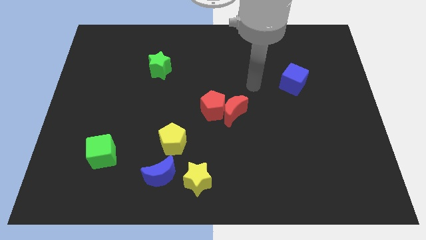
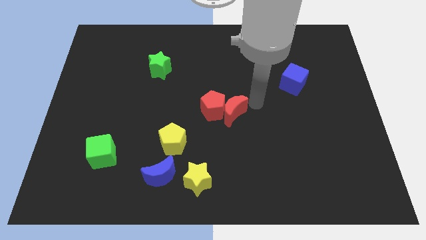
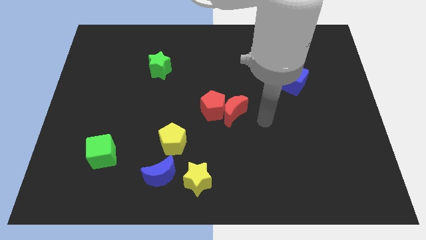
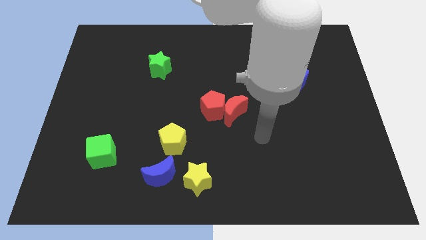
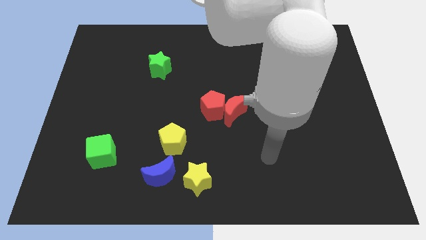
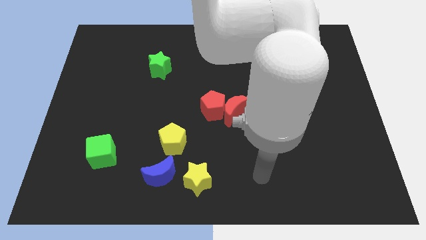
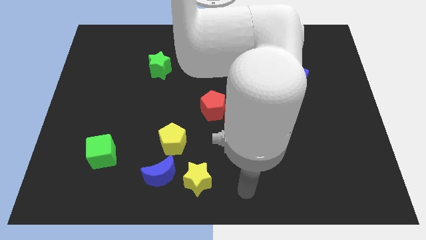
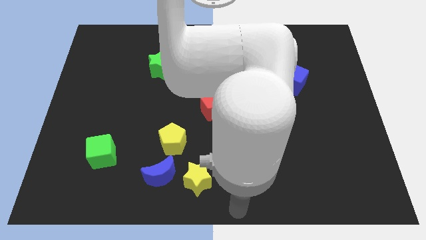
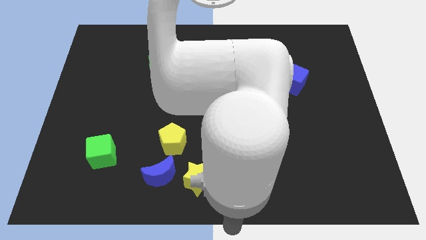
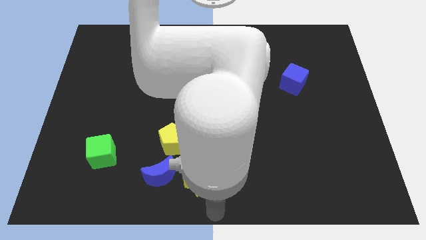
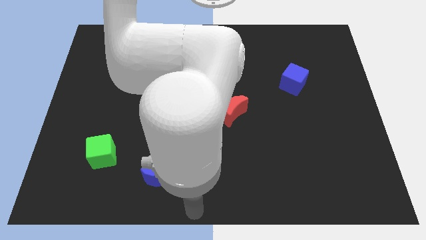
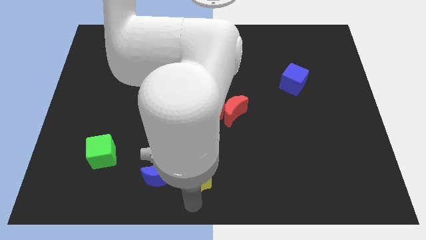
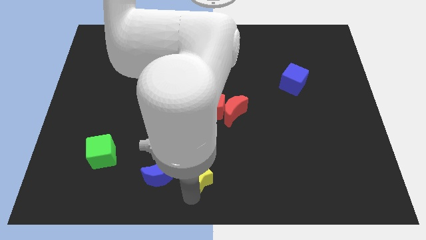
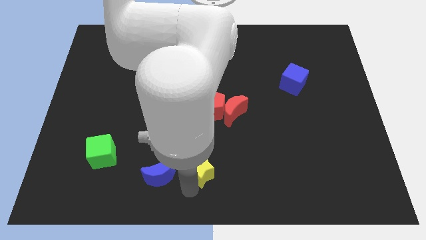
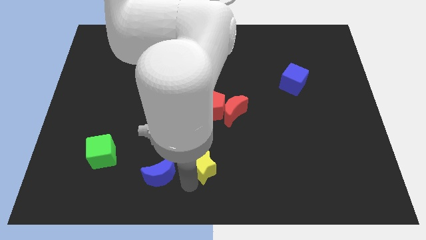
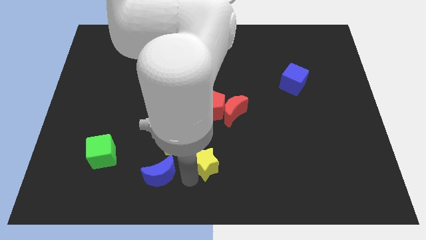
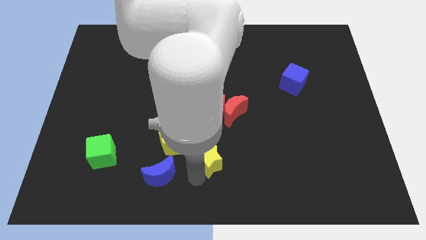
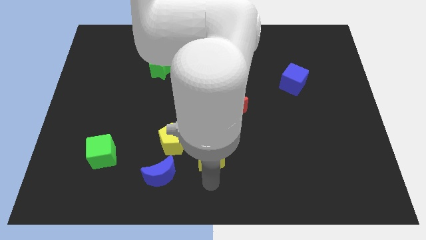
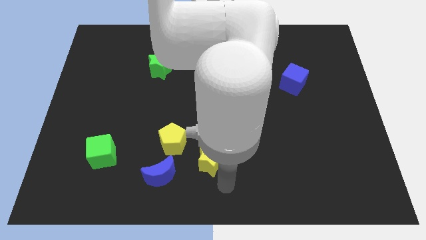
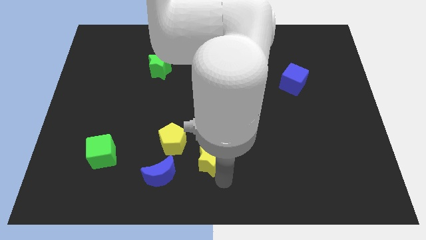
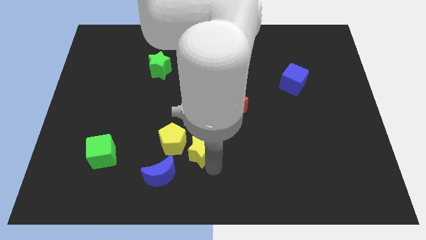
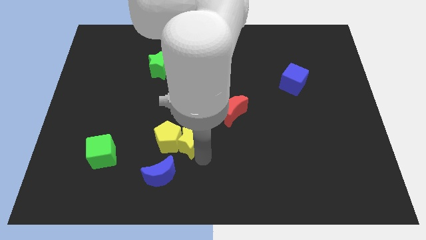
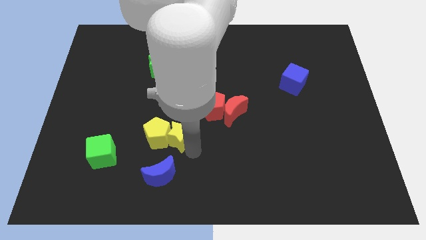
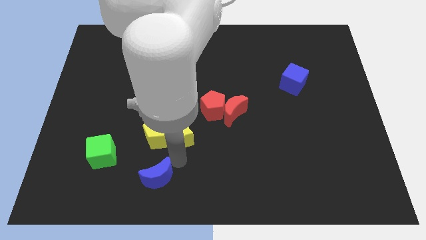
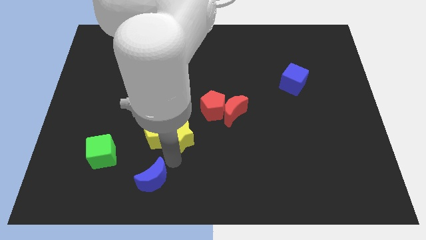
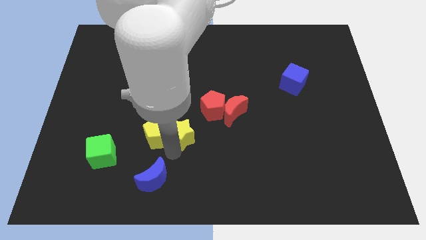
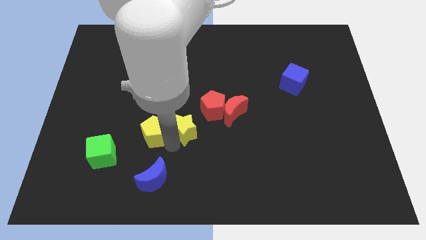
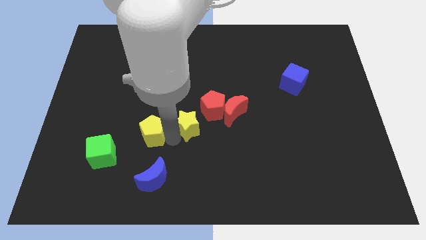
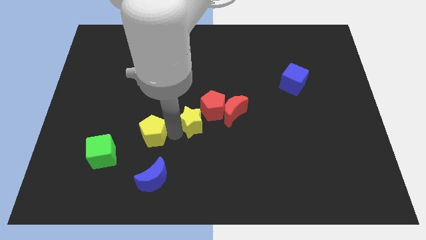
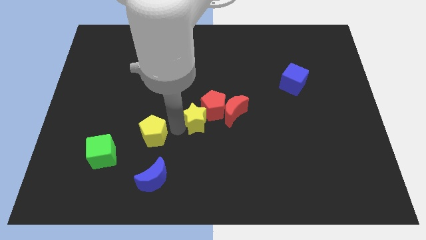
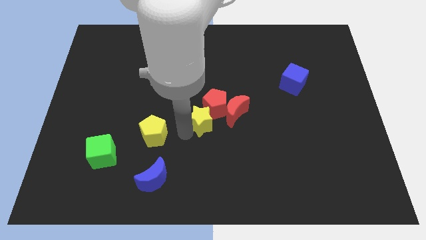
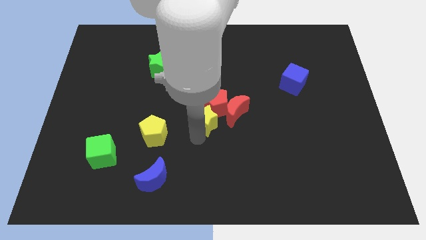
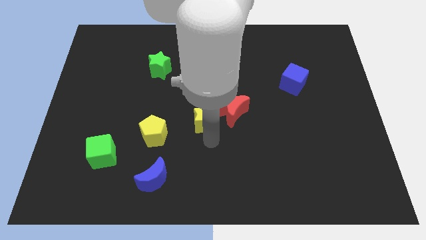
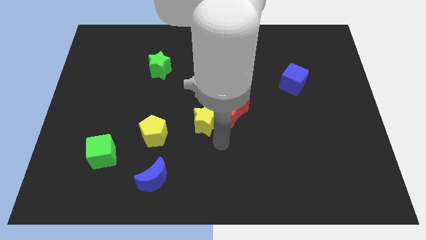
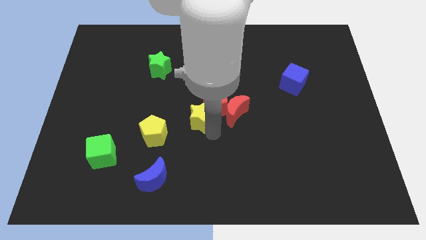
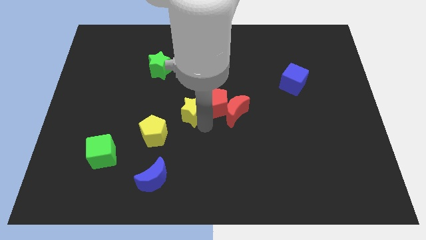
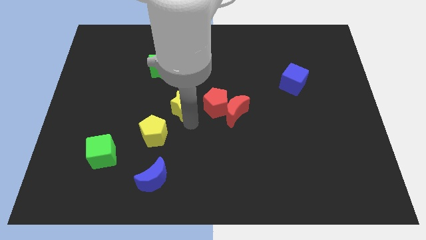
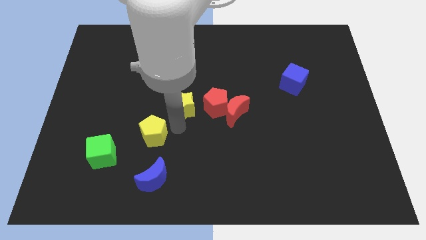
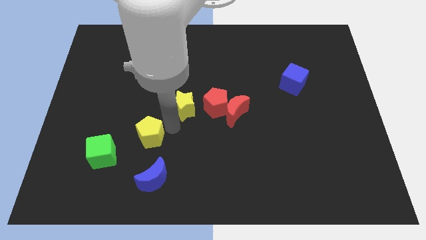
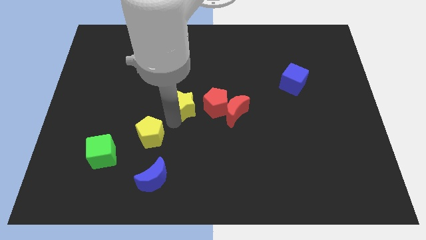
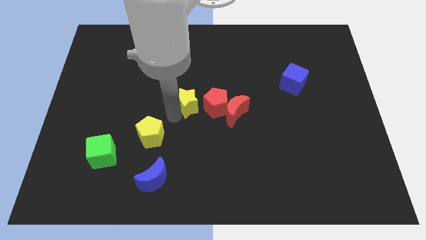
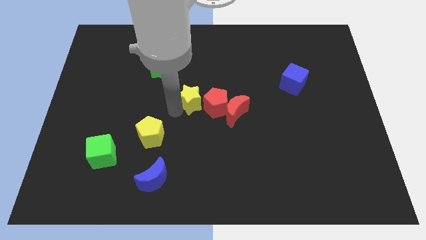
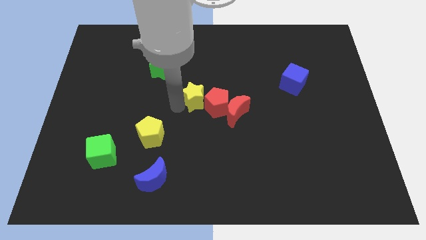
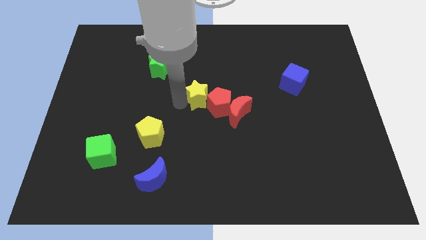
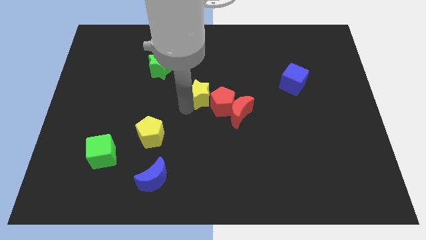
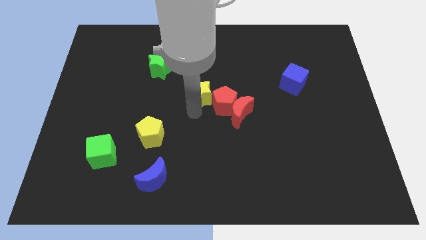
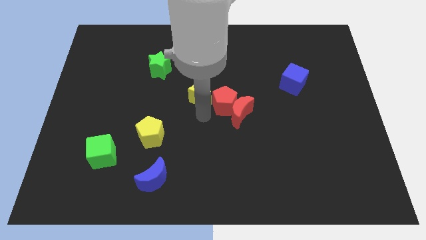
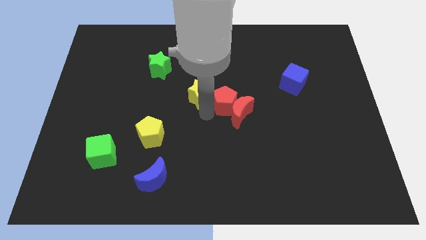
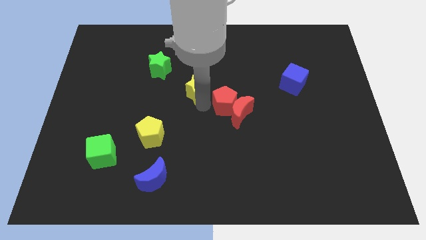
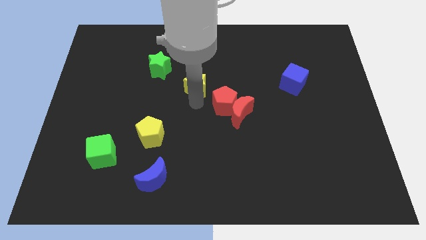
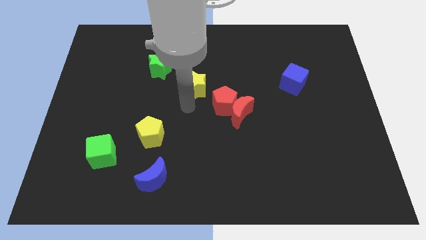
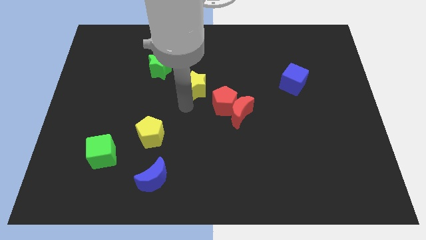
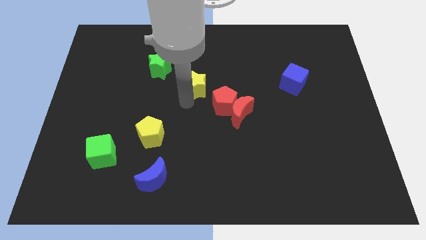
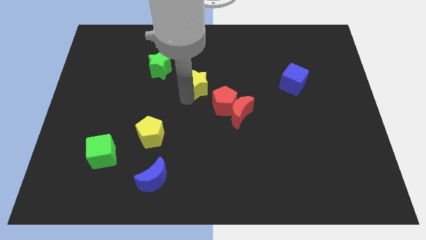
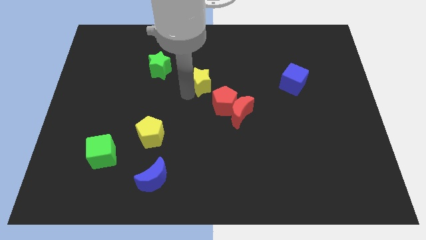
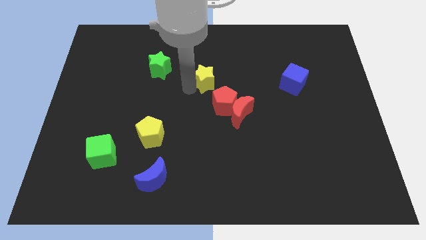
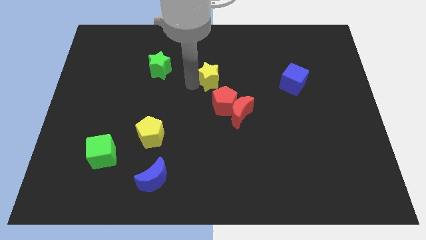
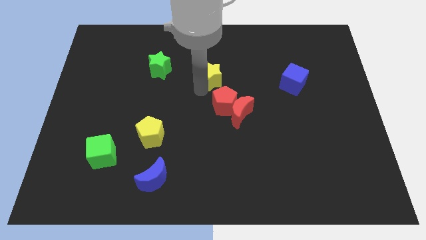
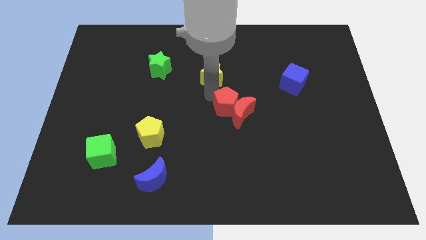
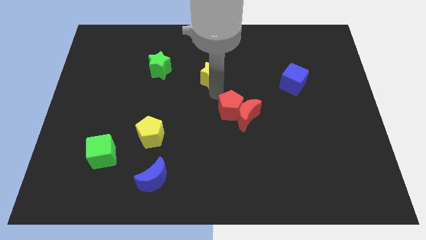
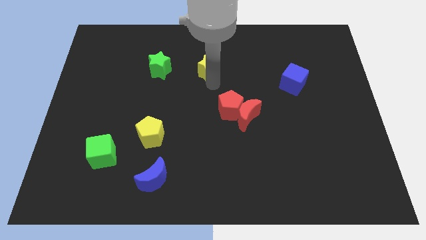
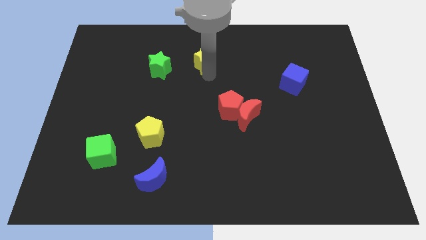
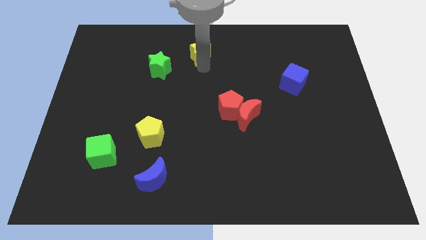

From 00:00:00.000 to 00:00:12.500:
move the yellow star to the top side

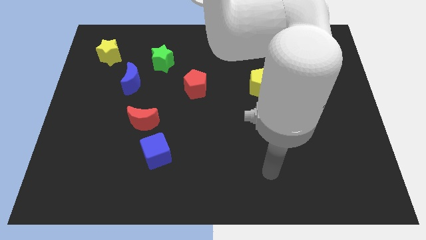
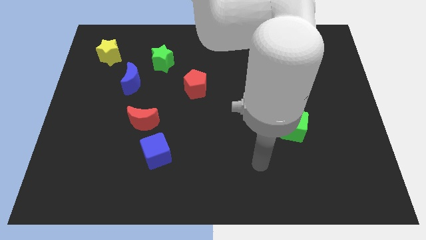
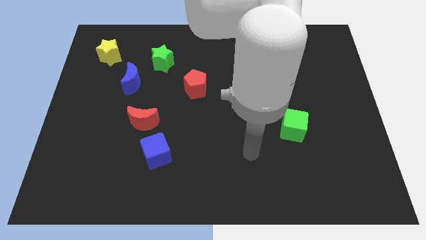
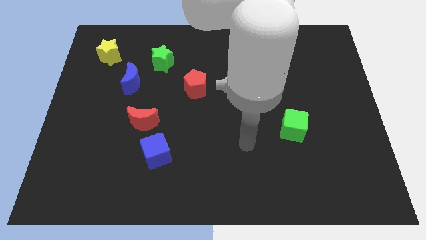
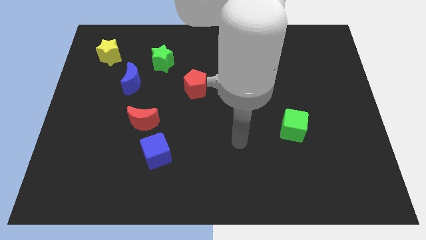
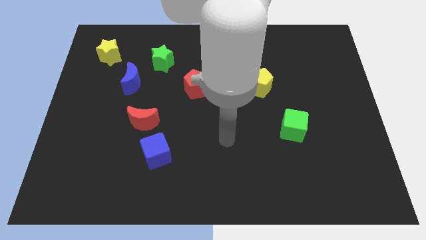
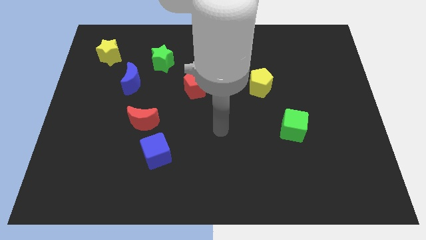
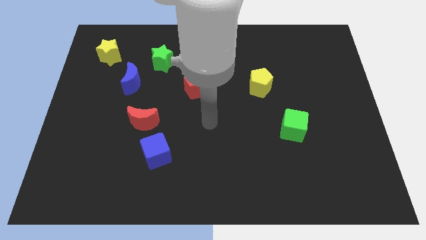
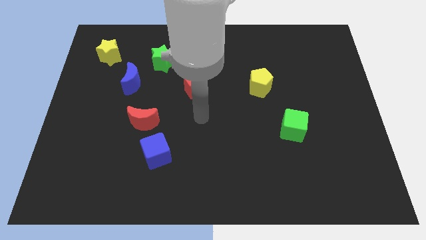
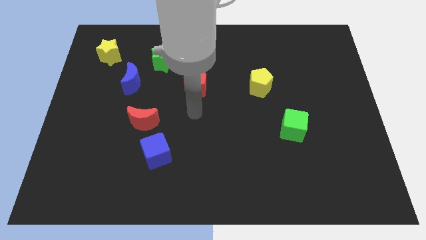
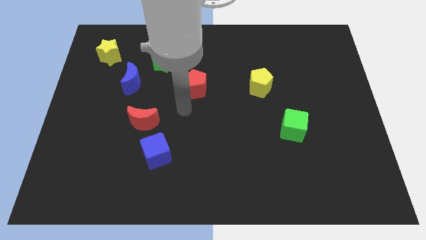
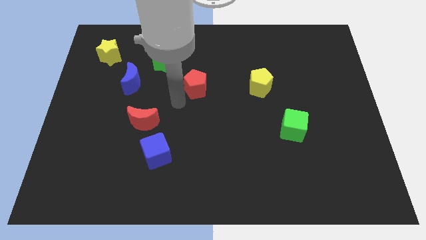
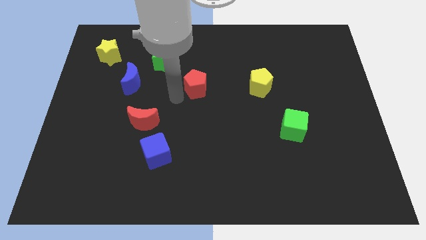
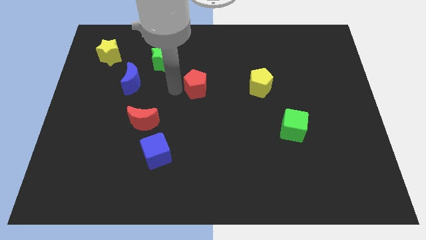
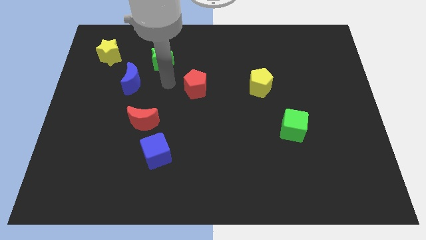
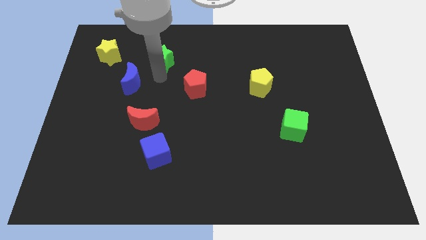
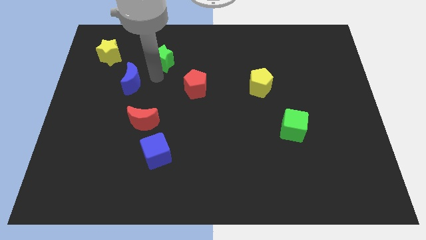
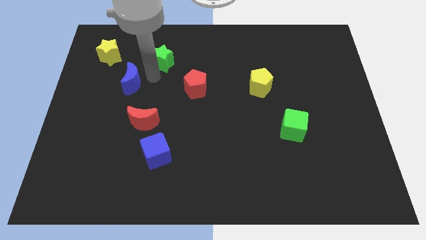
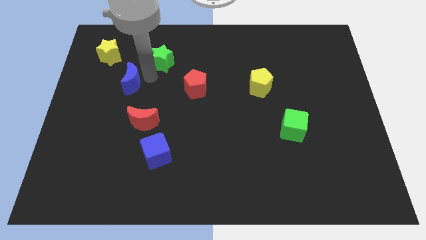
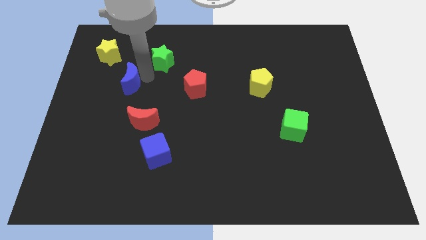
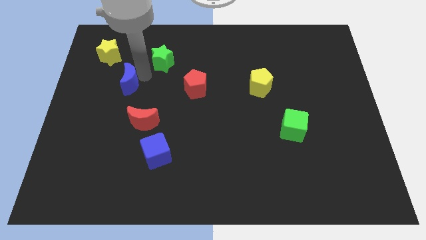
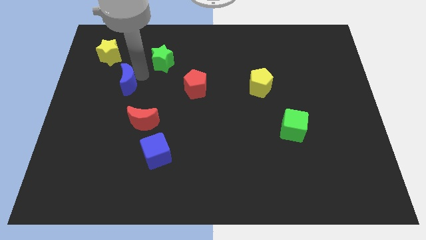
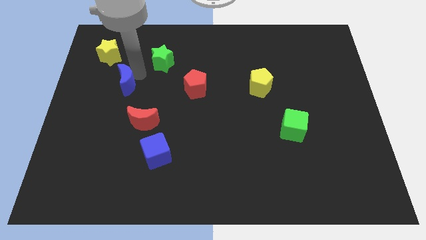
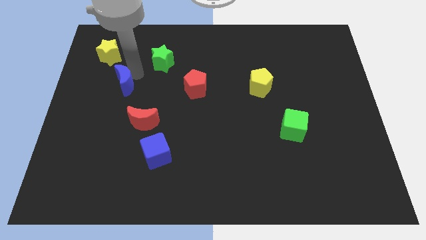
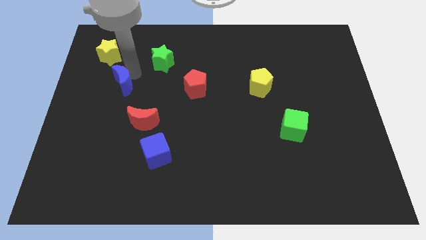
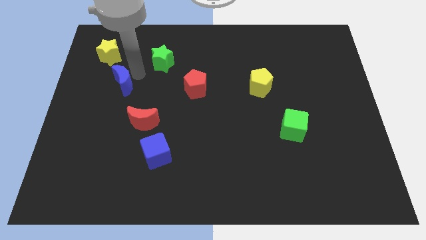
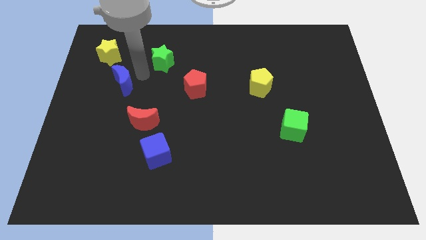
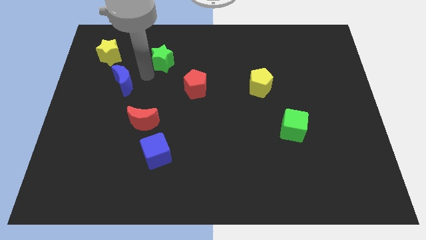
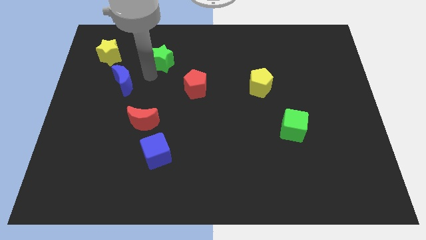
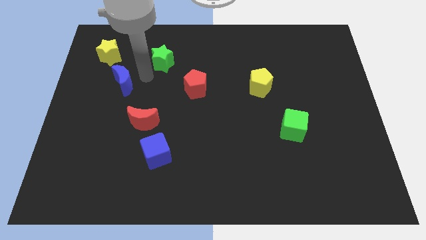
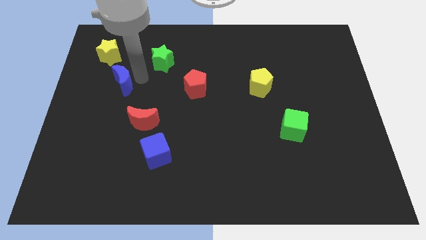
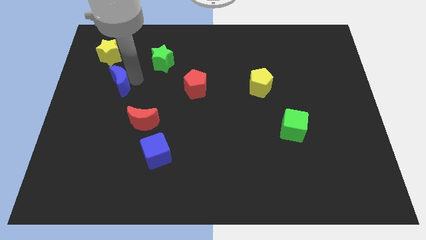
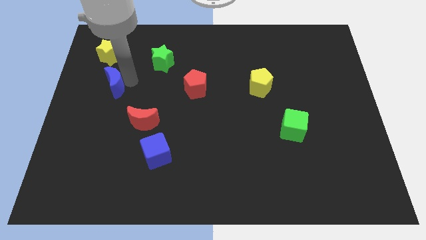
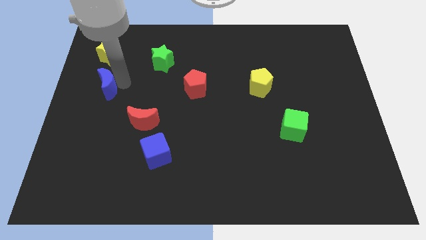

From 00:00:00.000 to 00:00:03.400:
move the blue moon to the left side
